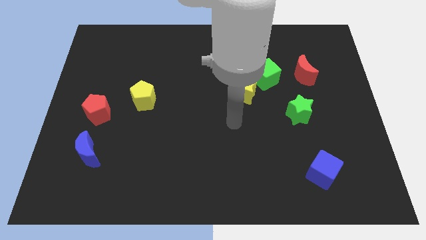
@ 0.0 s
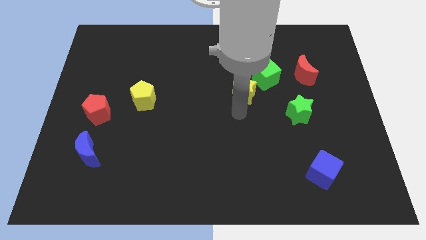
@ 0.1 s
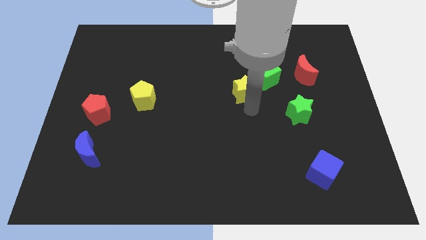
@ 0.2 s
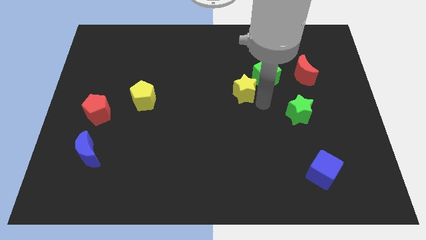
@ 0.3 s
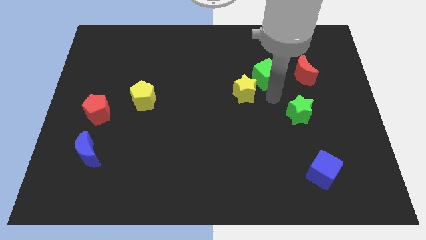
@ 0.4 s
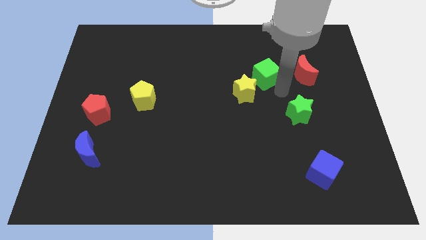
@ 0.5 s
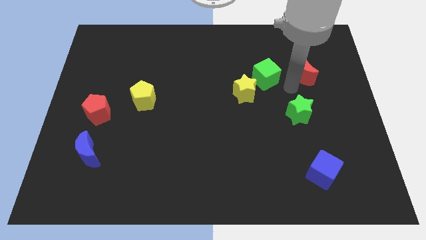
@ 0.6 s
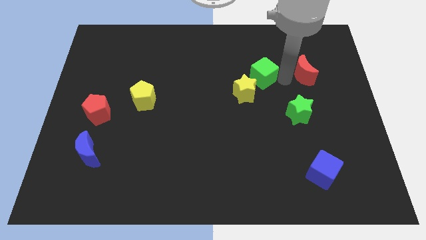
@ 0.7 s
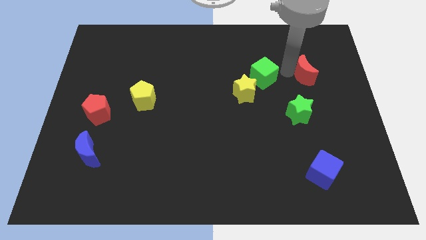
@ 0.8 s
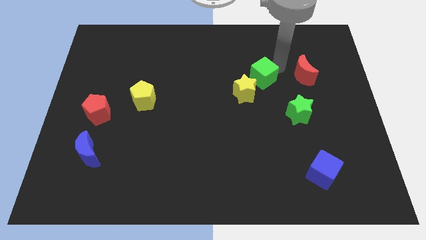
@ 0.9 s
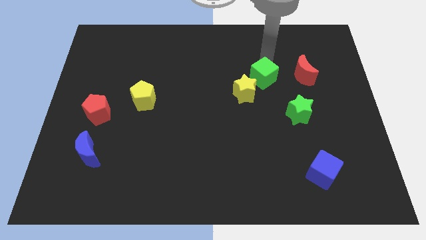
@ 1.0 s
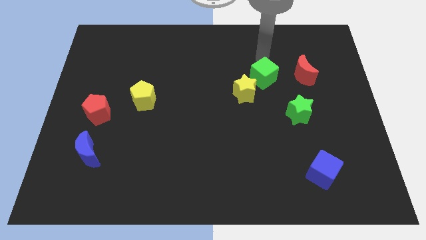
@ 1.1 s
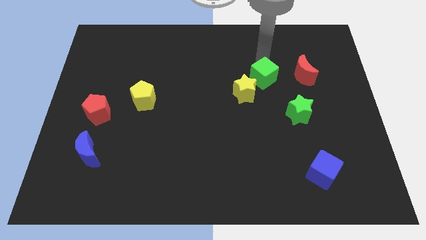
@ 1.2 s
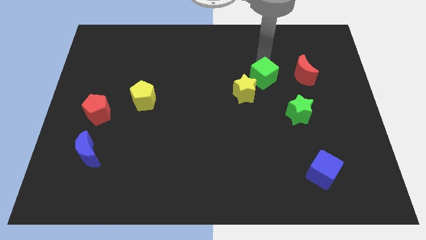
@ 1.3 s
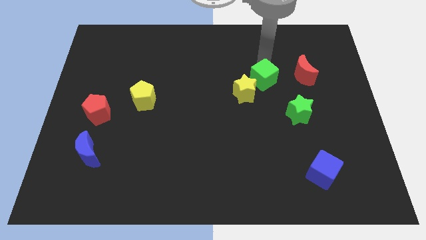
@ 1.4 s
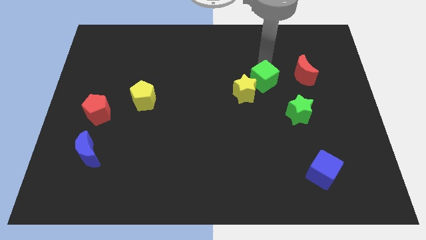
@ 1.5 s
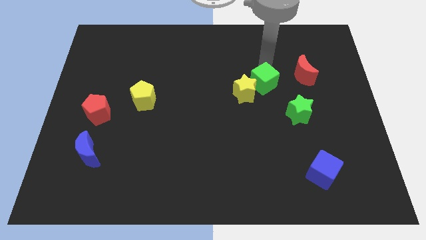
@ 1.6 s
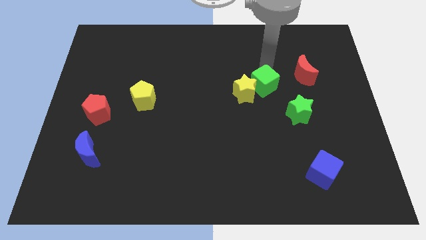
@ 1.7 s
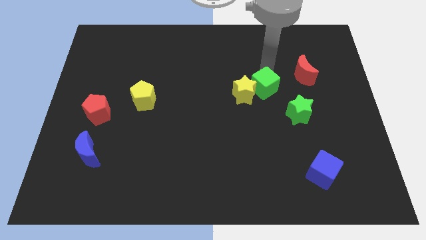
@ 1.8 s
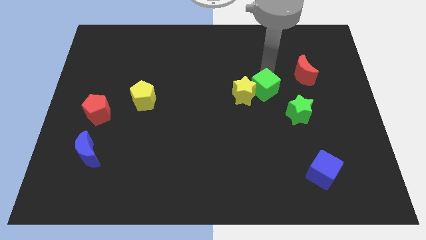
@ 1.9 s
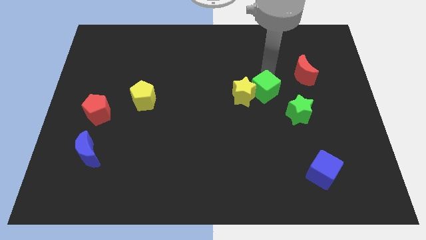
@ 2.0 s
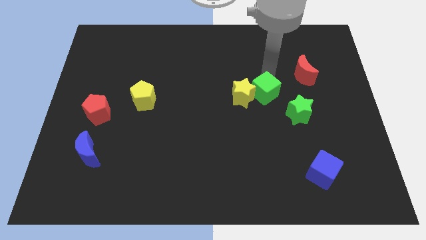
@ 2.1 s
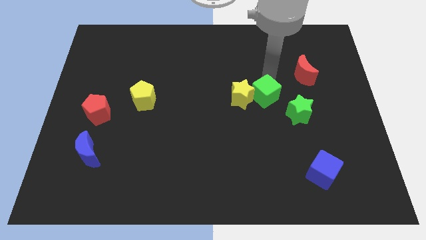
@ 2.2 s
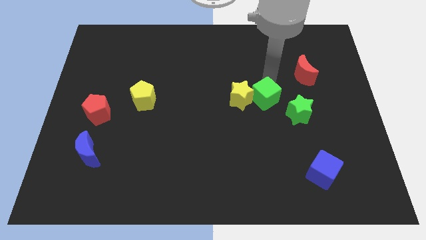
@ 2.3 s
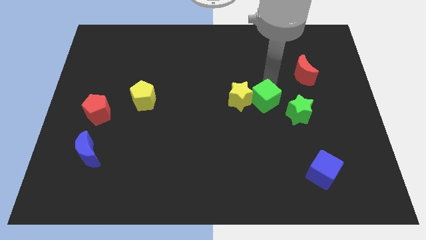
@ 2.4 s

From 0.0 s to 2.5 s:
slightly push the green cube downwards

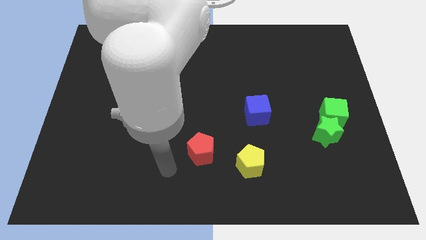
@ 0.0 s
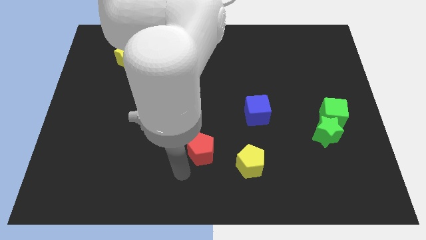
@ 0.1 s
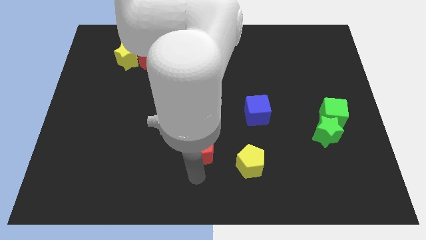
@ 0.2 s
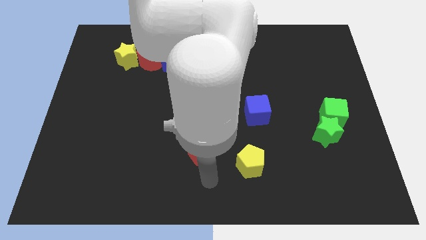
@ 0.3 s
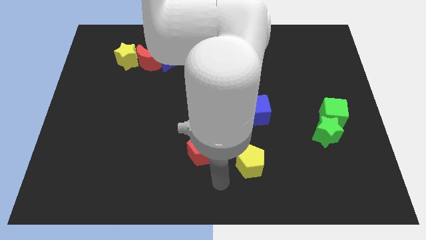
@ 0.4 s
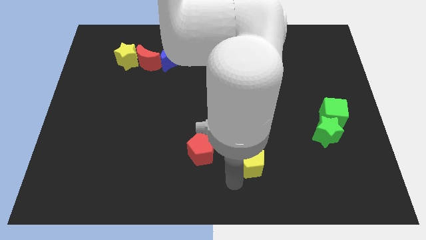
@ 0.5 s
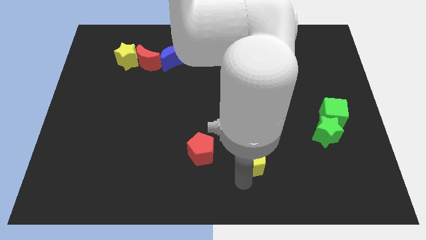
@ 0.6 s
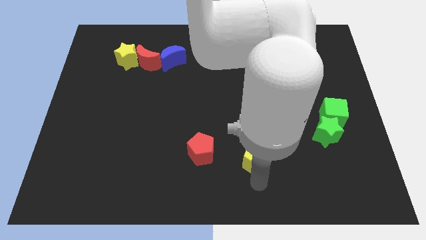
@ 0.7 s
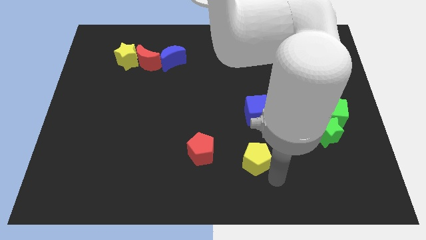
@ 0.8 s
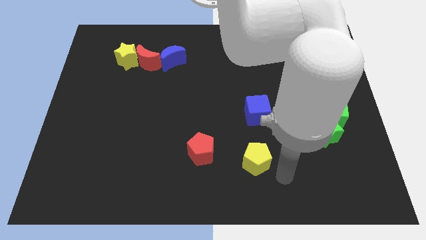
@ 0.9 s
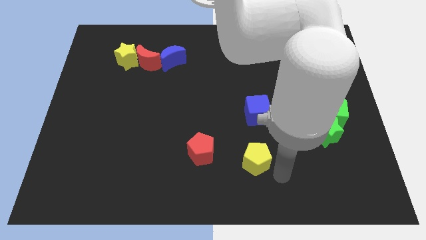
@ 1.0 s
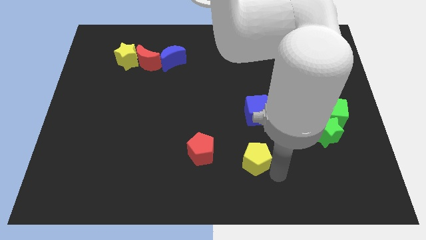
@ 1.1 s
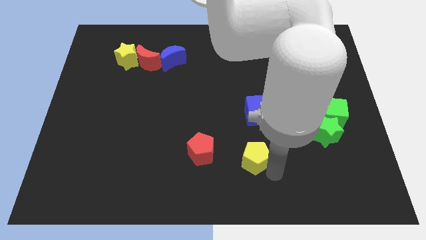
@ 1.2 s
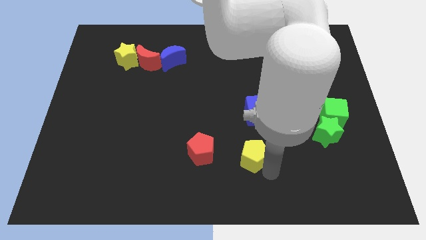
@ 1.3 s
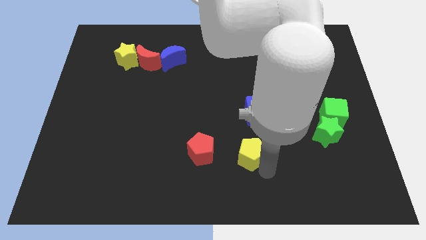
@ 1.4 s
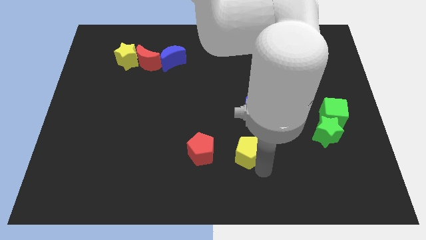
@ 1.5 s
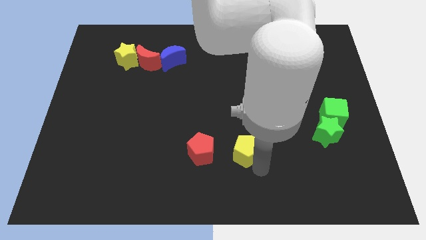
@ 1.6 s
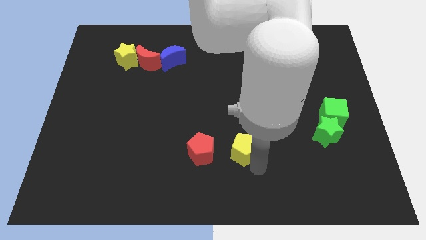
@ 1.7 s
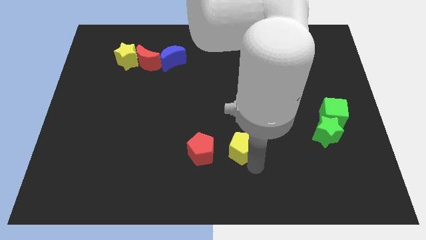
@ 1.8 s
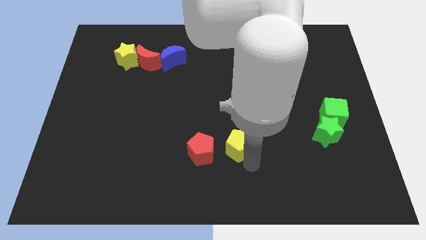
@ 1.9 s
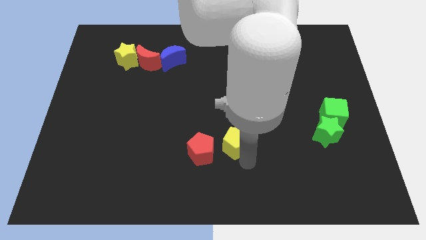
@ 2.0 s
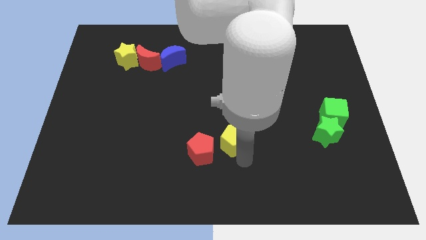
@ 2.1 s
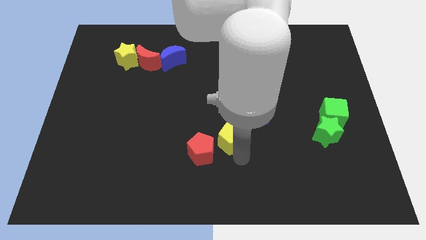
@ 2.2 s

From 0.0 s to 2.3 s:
move the yellow pentagon upwards and left slightly

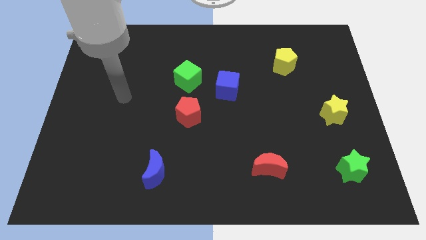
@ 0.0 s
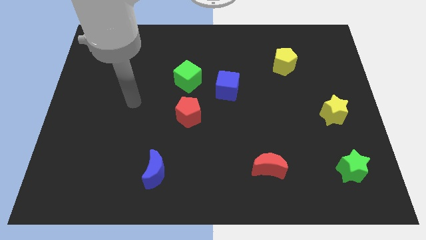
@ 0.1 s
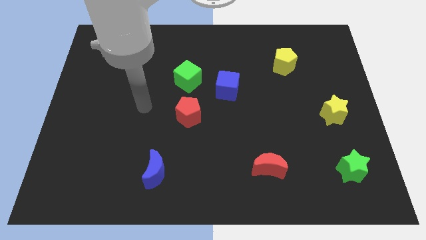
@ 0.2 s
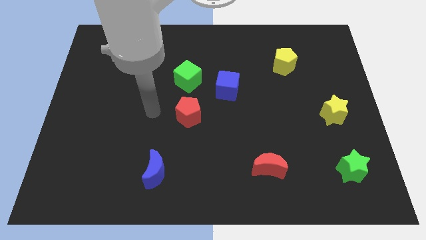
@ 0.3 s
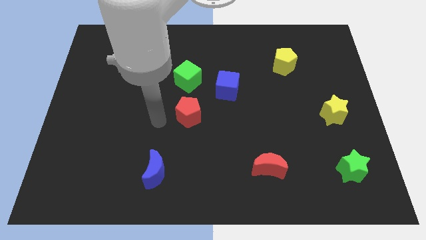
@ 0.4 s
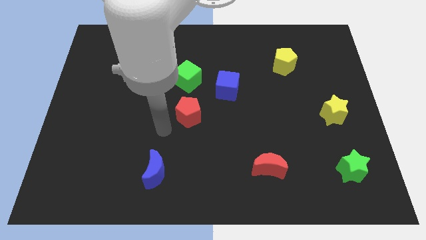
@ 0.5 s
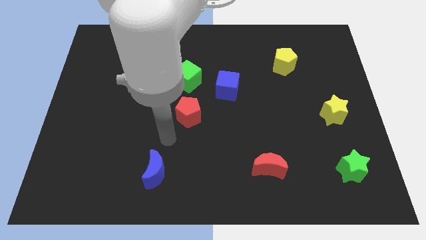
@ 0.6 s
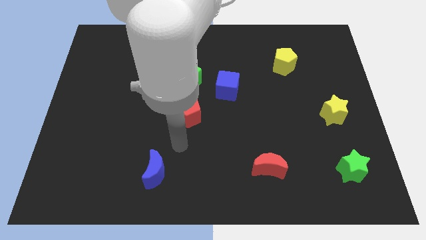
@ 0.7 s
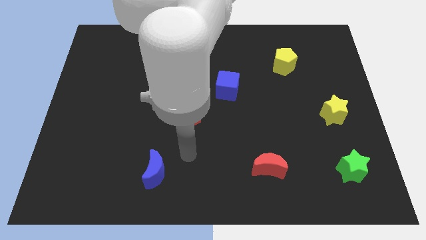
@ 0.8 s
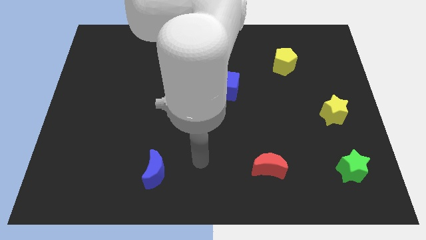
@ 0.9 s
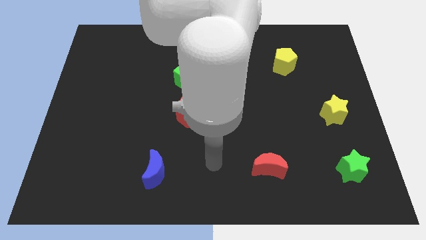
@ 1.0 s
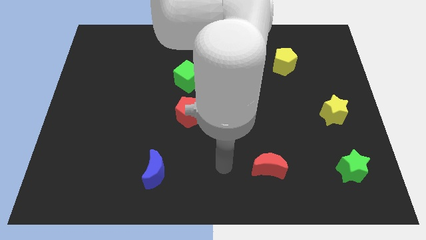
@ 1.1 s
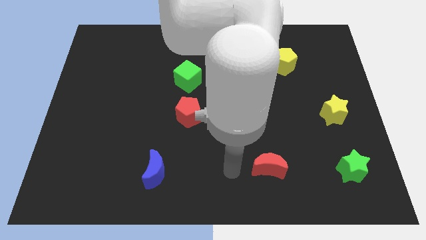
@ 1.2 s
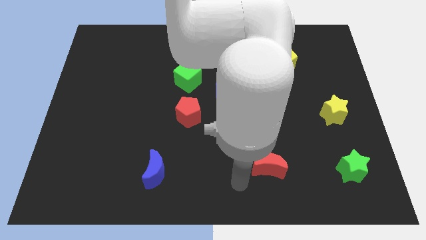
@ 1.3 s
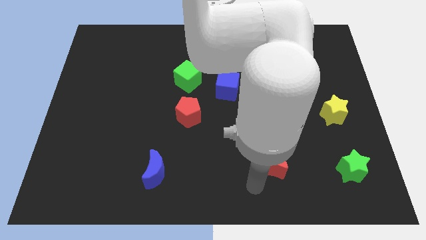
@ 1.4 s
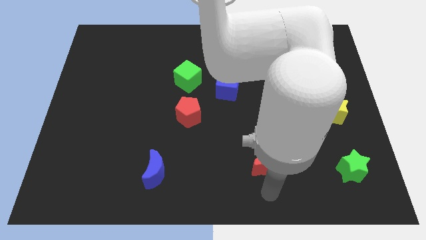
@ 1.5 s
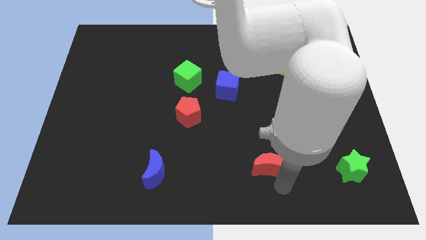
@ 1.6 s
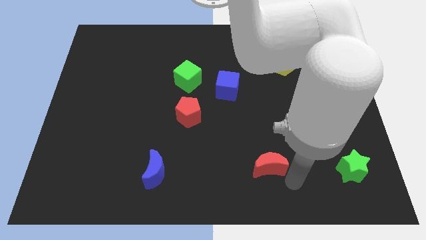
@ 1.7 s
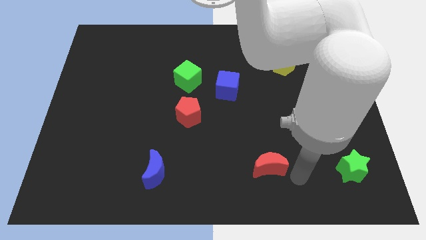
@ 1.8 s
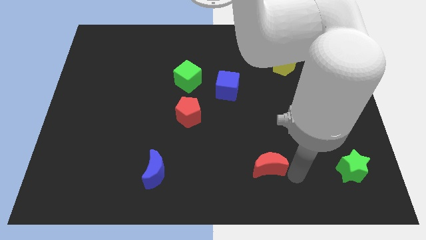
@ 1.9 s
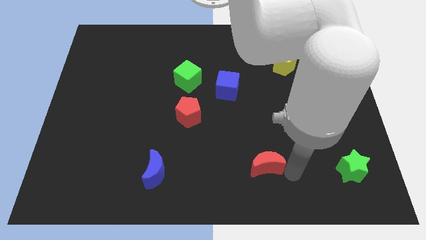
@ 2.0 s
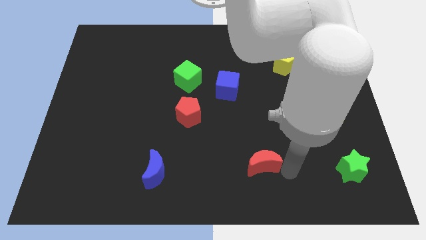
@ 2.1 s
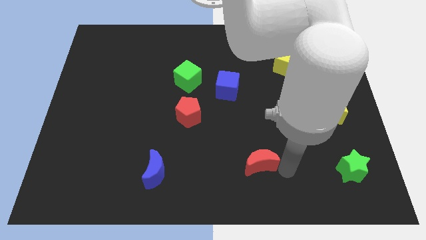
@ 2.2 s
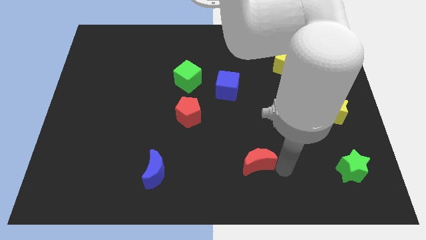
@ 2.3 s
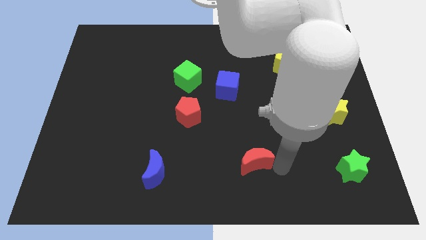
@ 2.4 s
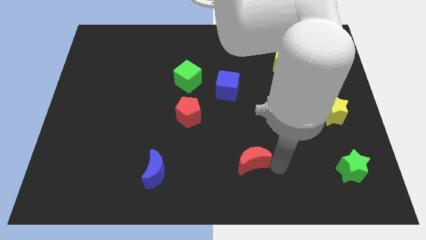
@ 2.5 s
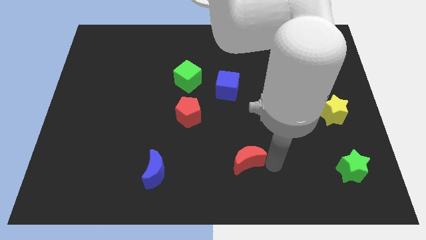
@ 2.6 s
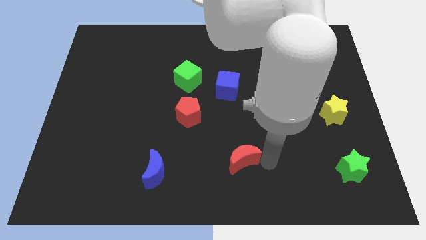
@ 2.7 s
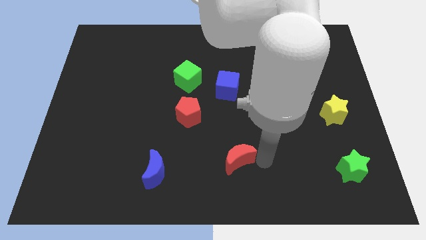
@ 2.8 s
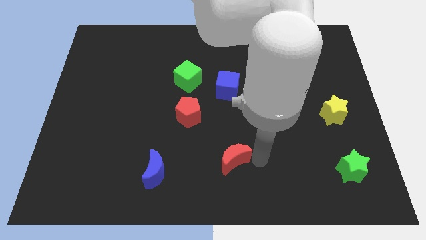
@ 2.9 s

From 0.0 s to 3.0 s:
move the red moon a little left

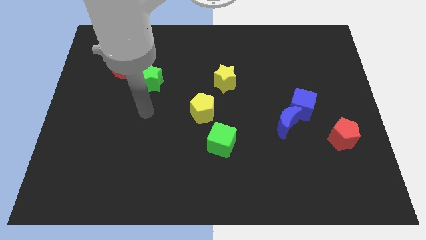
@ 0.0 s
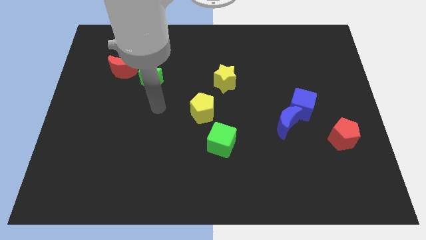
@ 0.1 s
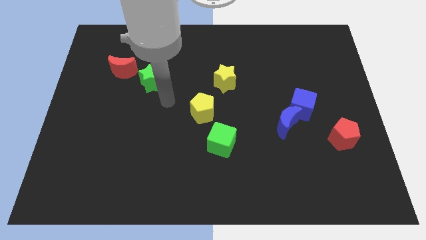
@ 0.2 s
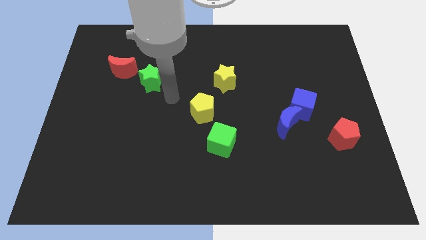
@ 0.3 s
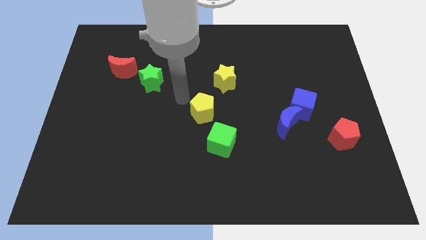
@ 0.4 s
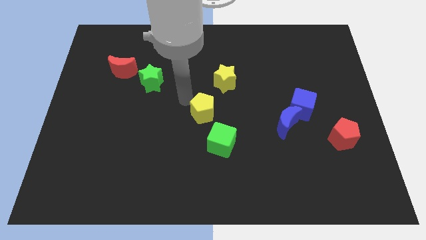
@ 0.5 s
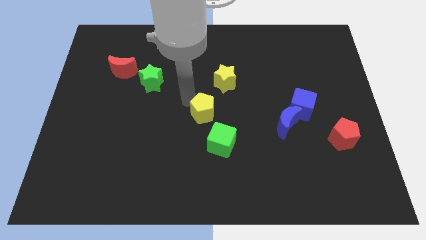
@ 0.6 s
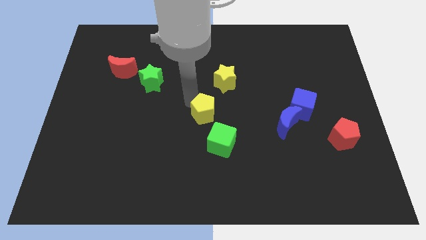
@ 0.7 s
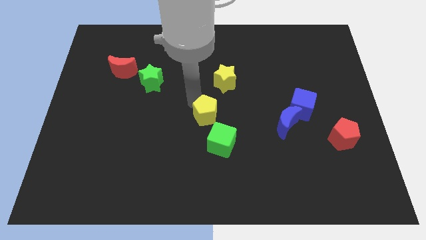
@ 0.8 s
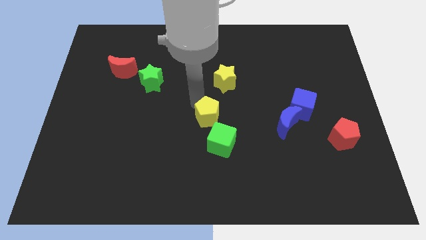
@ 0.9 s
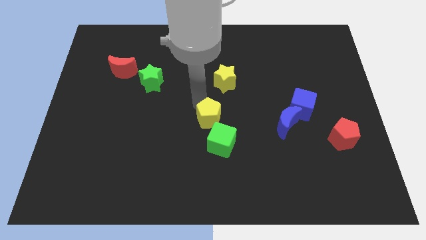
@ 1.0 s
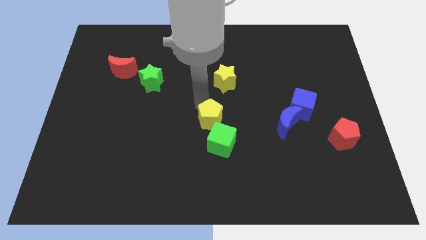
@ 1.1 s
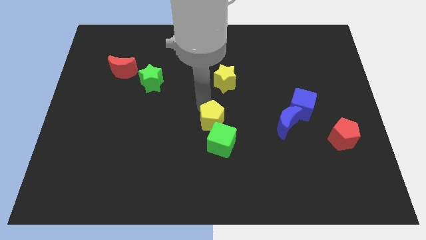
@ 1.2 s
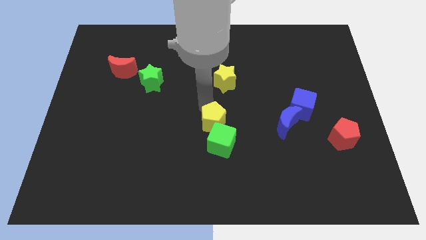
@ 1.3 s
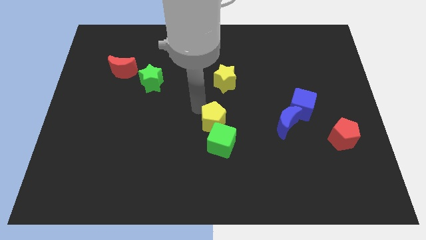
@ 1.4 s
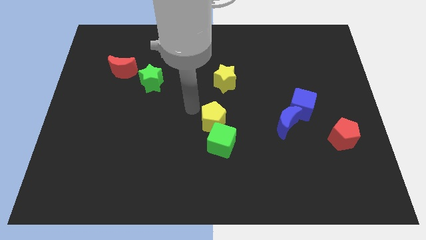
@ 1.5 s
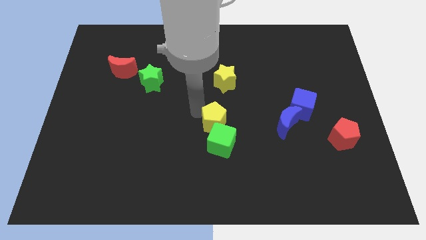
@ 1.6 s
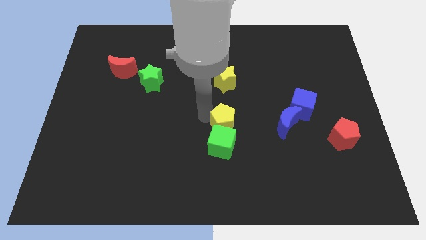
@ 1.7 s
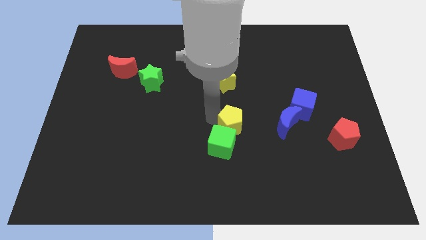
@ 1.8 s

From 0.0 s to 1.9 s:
move the yellow pentagon down and then to the right a bit
